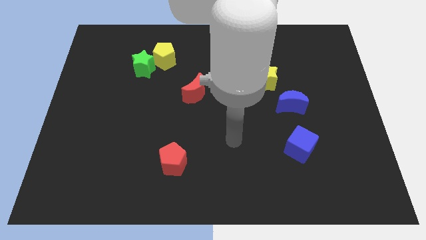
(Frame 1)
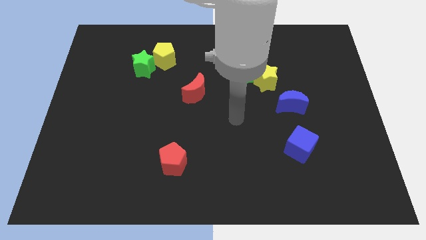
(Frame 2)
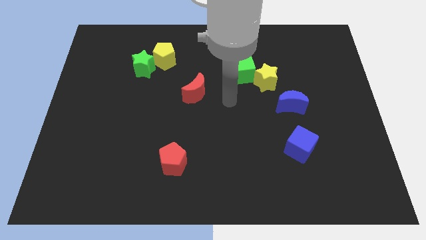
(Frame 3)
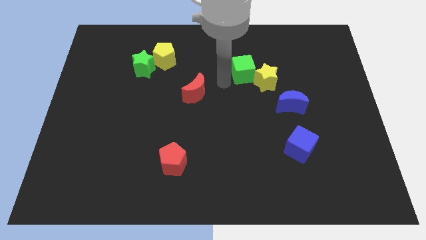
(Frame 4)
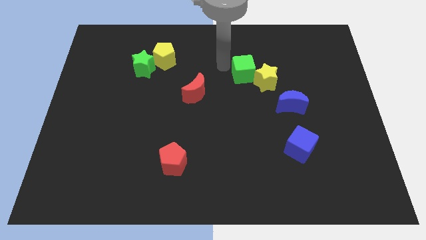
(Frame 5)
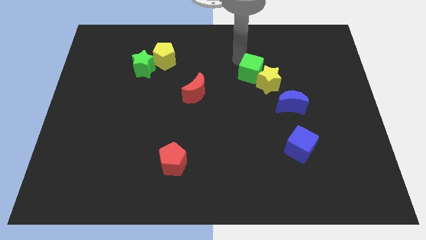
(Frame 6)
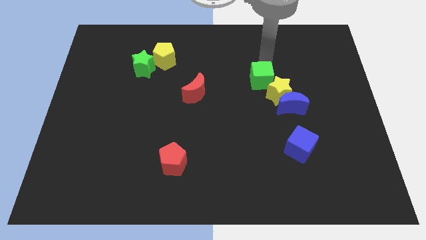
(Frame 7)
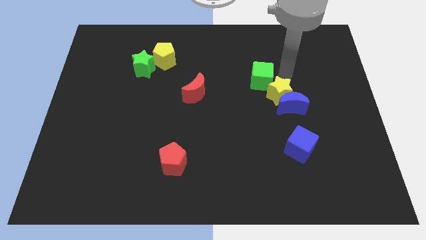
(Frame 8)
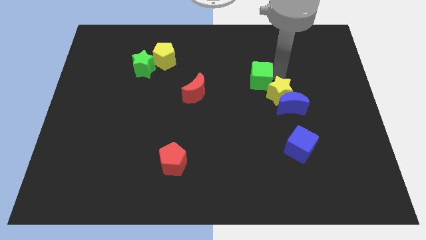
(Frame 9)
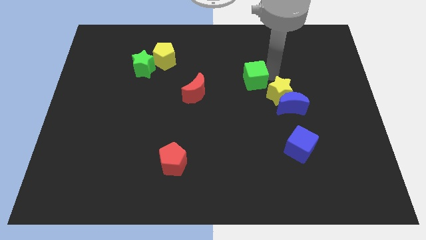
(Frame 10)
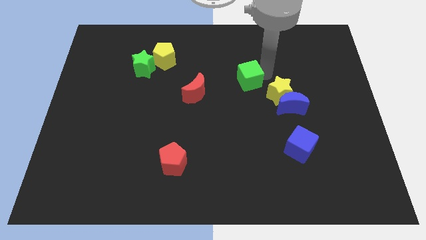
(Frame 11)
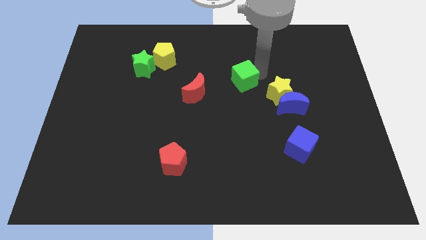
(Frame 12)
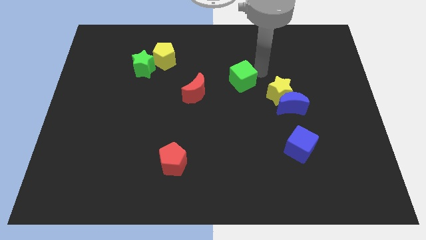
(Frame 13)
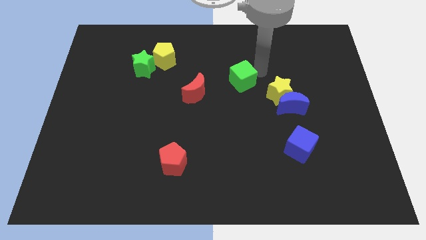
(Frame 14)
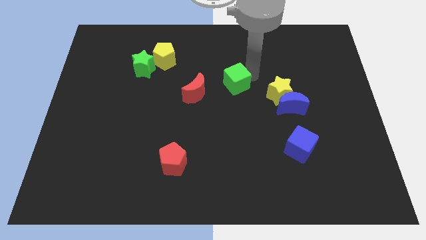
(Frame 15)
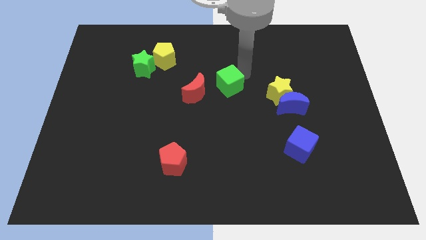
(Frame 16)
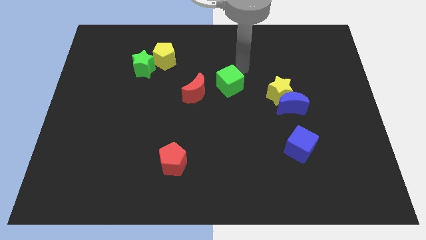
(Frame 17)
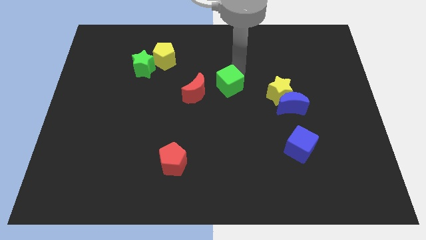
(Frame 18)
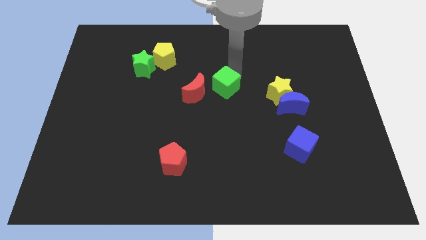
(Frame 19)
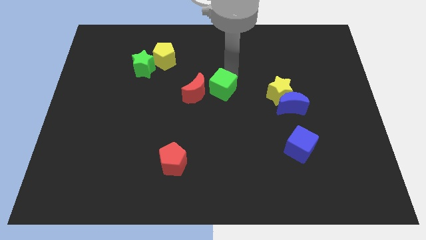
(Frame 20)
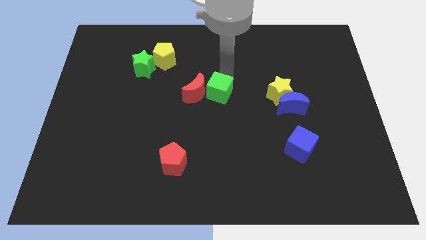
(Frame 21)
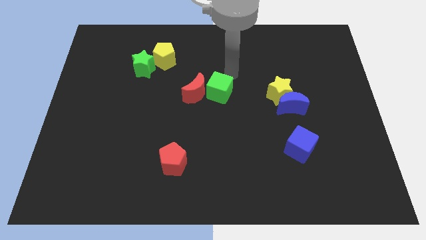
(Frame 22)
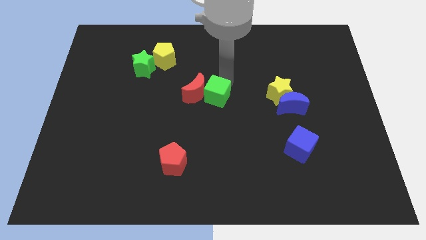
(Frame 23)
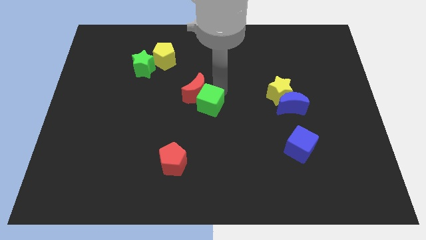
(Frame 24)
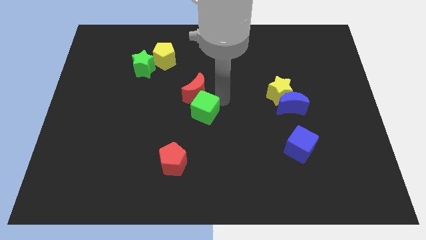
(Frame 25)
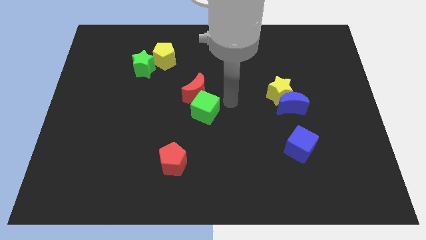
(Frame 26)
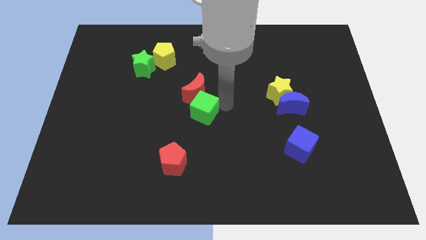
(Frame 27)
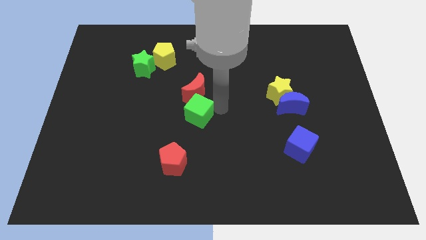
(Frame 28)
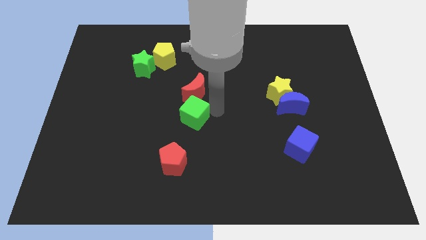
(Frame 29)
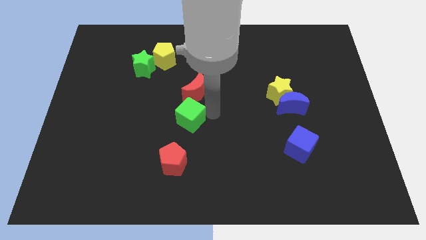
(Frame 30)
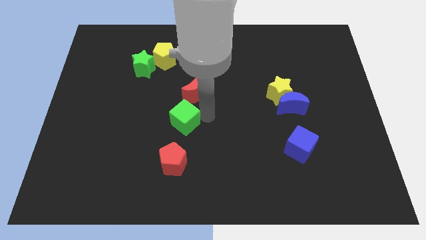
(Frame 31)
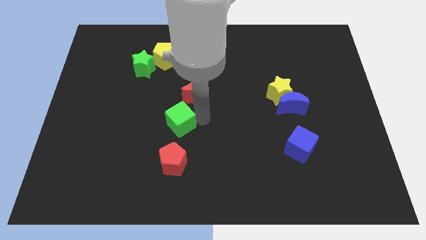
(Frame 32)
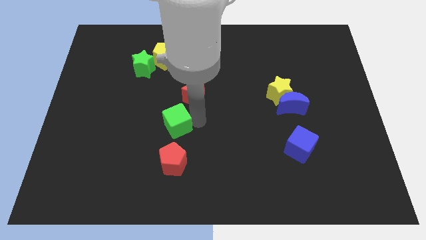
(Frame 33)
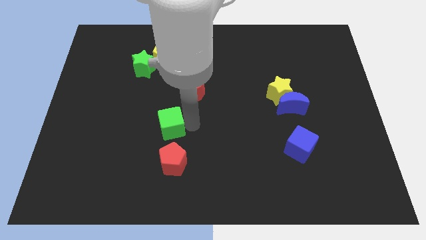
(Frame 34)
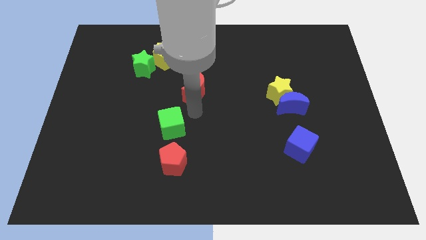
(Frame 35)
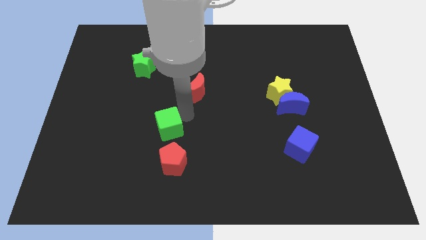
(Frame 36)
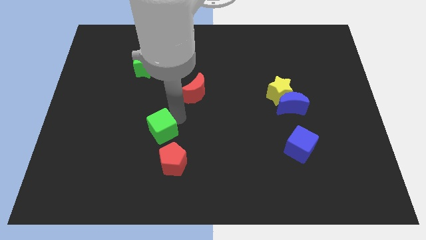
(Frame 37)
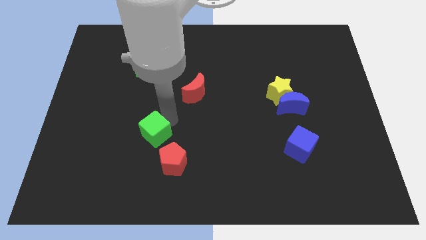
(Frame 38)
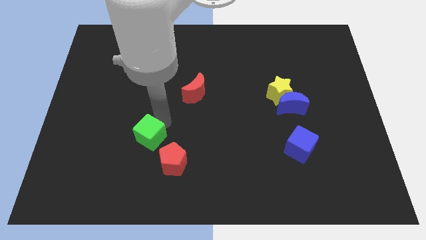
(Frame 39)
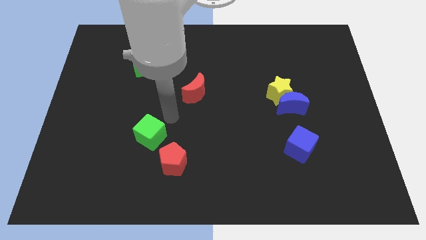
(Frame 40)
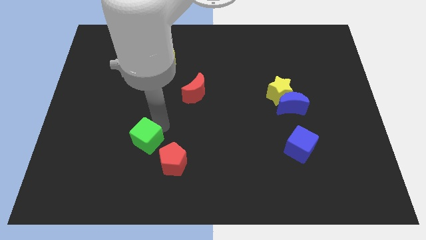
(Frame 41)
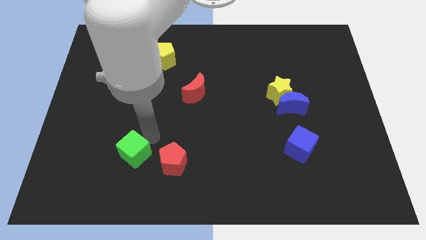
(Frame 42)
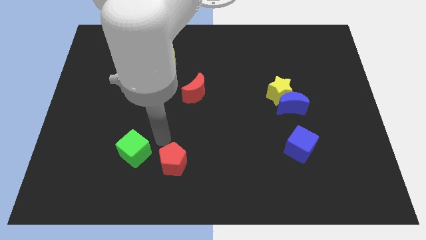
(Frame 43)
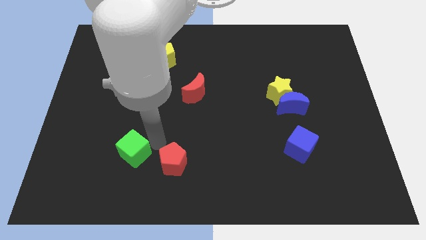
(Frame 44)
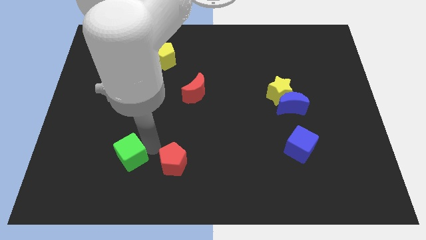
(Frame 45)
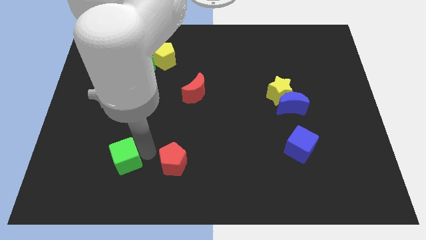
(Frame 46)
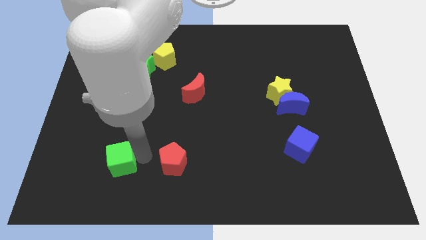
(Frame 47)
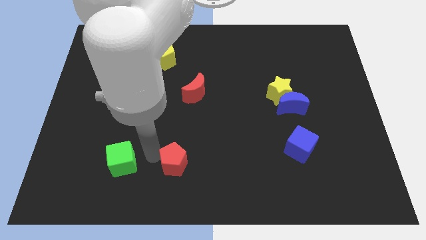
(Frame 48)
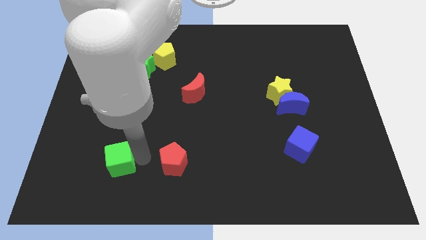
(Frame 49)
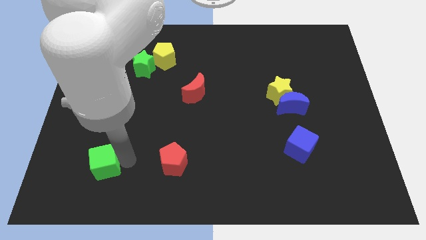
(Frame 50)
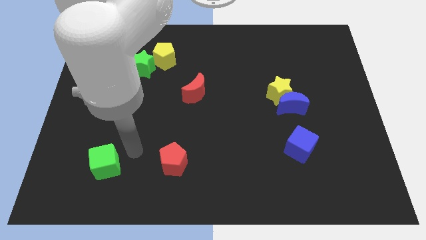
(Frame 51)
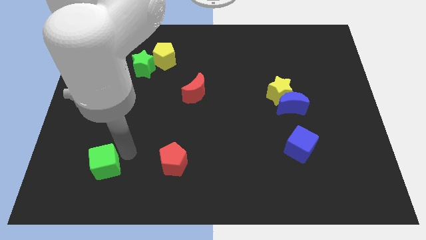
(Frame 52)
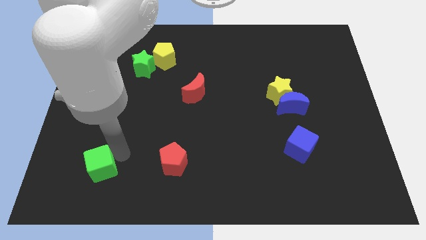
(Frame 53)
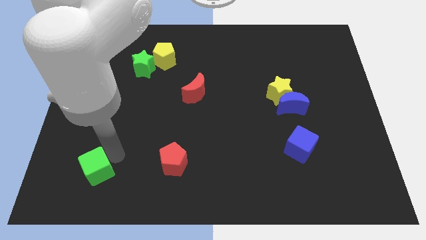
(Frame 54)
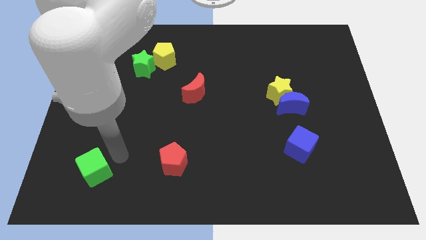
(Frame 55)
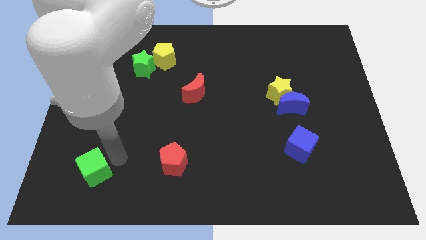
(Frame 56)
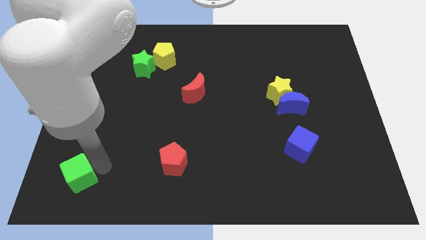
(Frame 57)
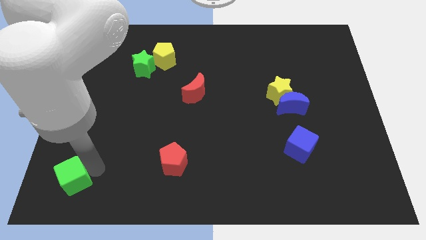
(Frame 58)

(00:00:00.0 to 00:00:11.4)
slide the green cube to the bottom left of the board
